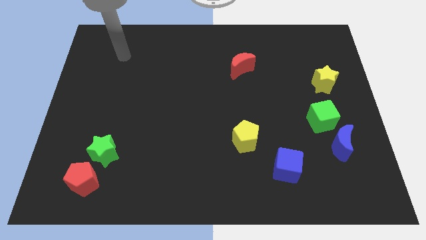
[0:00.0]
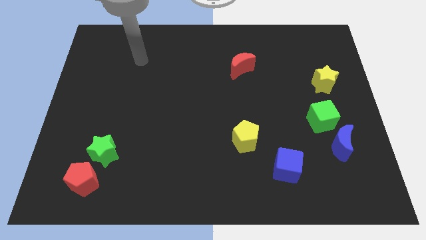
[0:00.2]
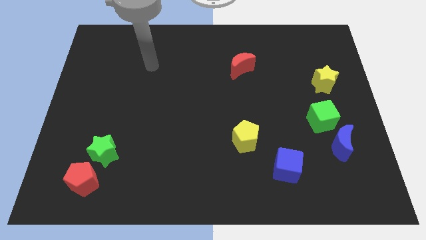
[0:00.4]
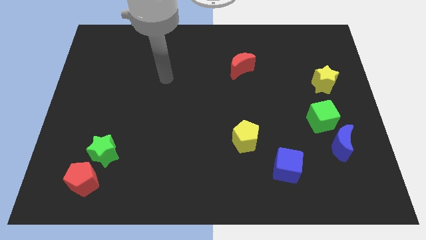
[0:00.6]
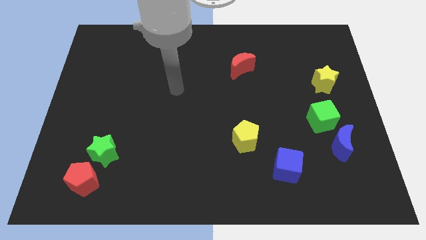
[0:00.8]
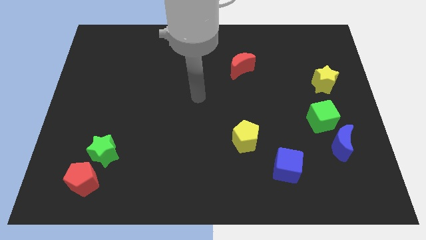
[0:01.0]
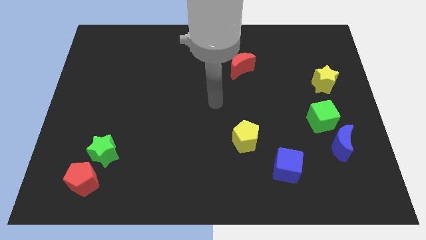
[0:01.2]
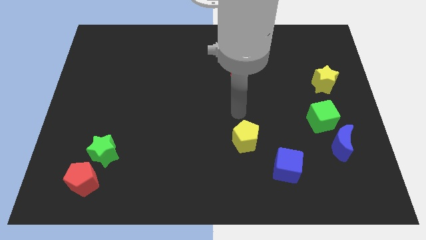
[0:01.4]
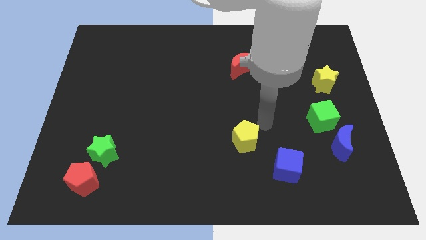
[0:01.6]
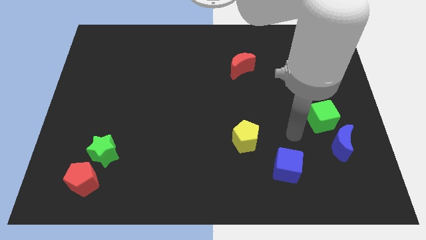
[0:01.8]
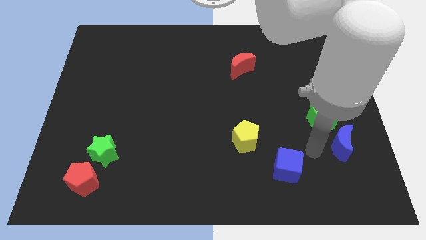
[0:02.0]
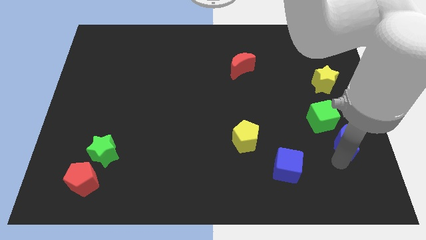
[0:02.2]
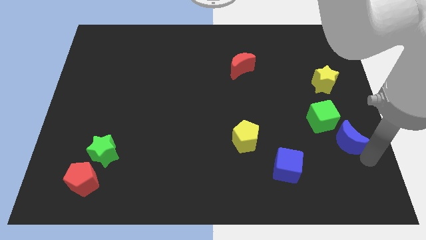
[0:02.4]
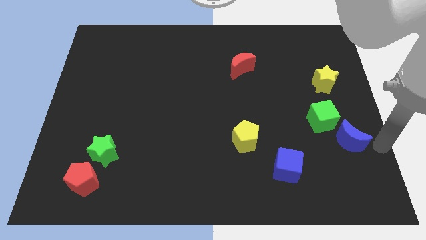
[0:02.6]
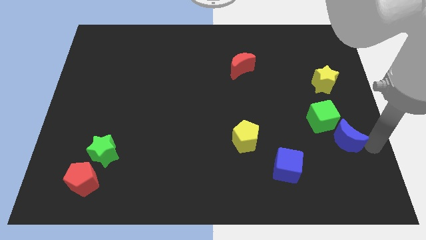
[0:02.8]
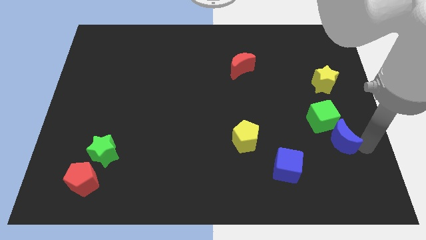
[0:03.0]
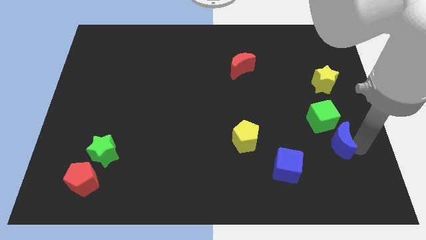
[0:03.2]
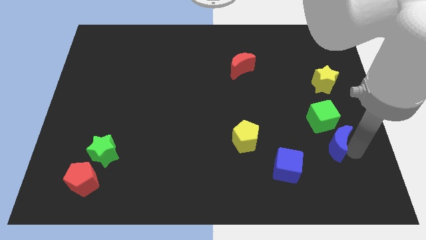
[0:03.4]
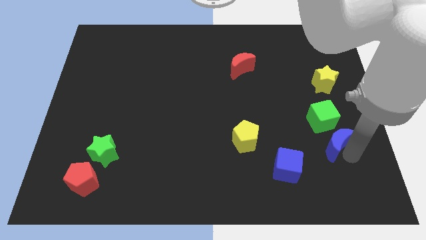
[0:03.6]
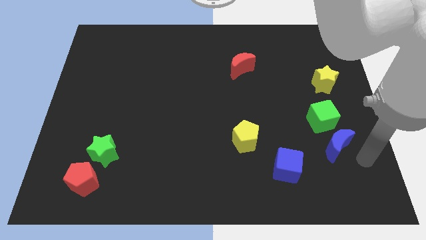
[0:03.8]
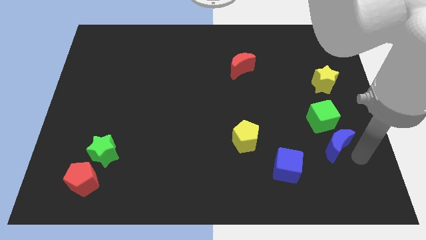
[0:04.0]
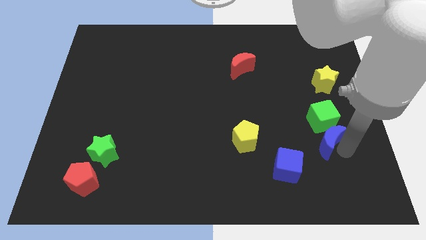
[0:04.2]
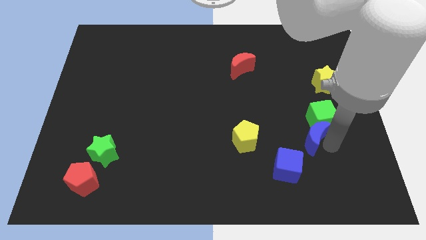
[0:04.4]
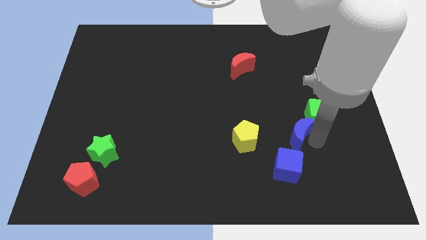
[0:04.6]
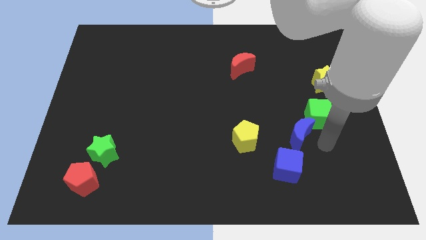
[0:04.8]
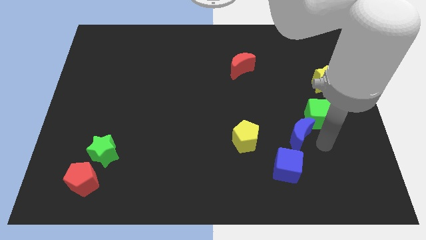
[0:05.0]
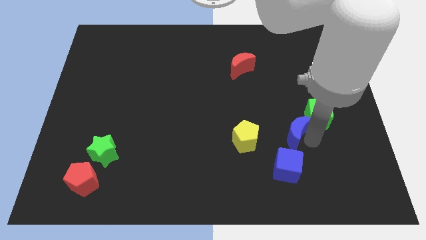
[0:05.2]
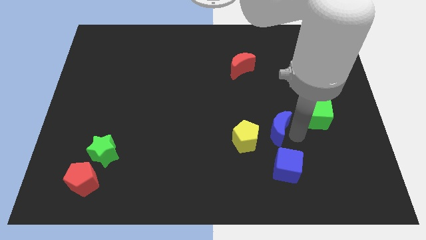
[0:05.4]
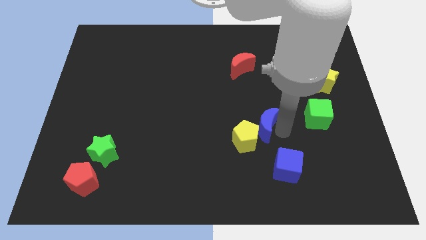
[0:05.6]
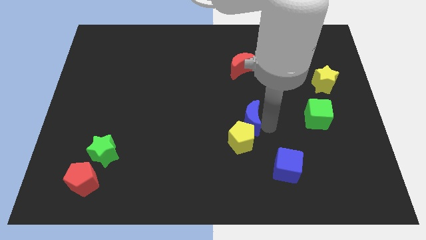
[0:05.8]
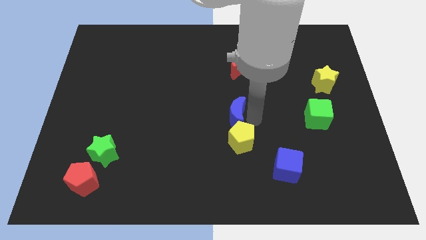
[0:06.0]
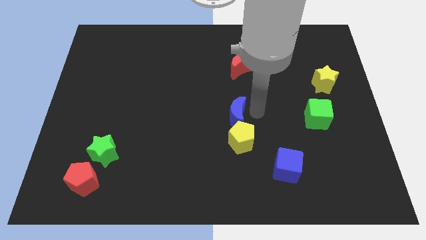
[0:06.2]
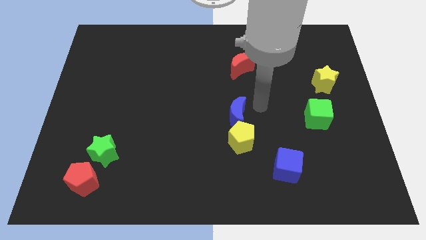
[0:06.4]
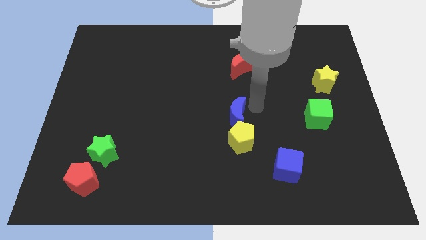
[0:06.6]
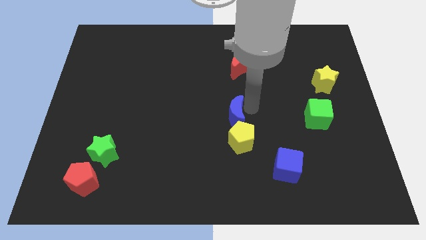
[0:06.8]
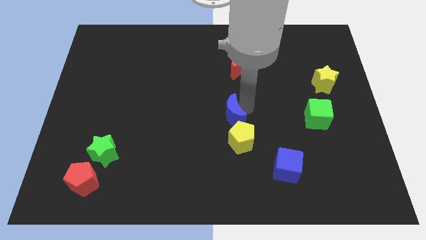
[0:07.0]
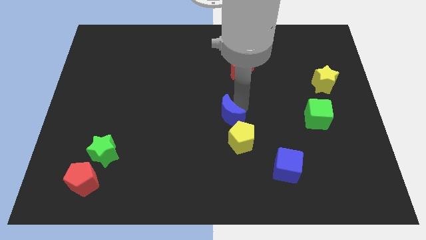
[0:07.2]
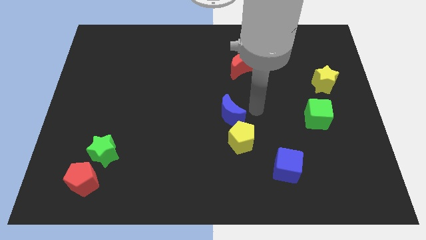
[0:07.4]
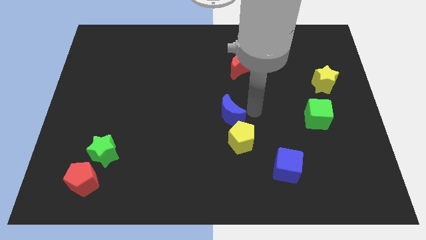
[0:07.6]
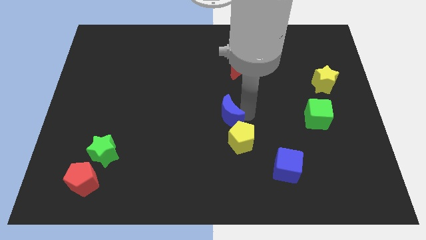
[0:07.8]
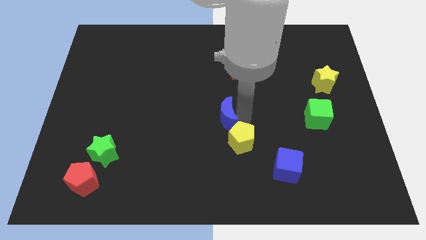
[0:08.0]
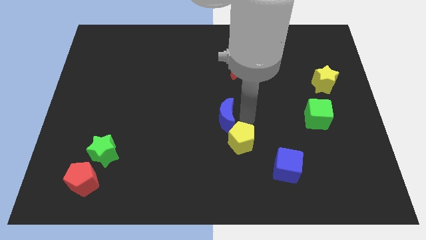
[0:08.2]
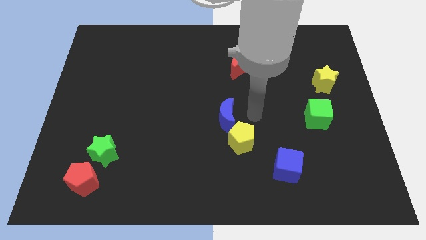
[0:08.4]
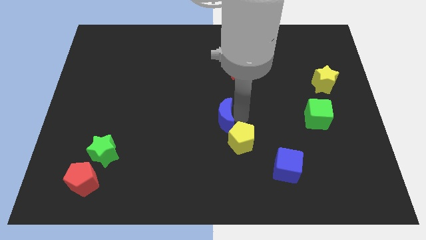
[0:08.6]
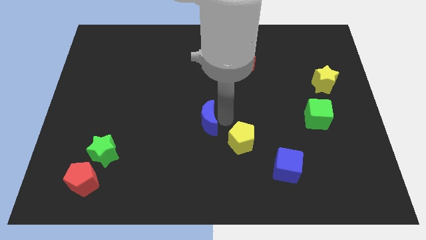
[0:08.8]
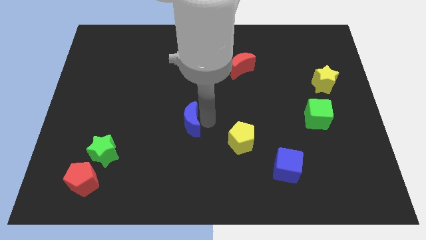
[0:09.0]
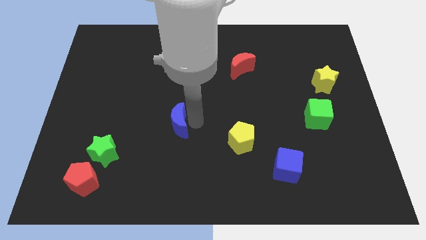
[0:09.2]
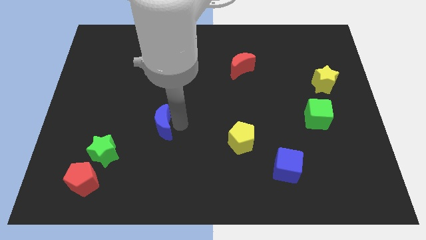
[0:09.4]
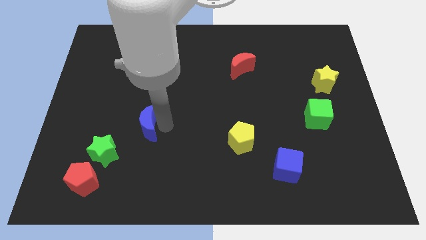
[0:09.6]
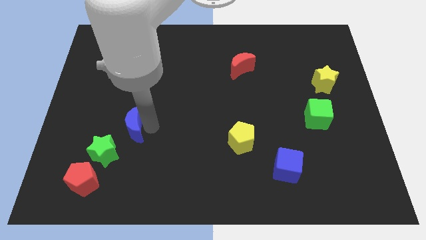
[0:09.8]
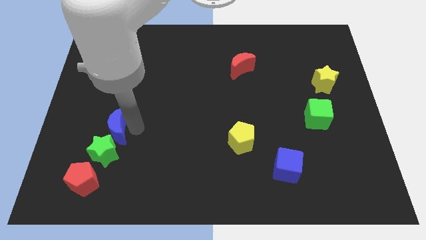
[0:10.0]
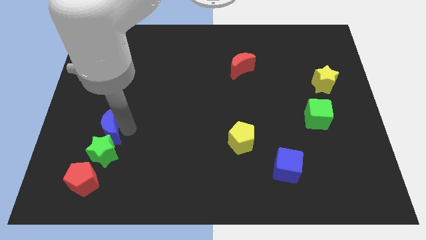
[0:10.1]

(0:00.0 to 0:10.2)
push the blue moon to the top left side of the green star

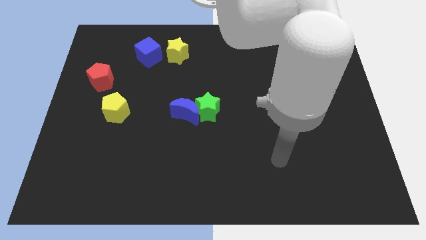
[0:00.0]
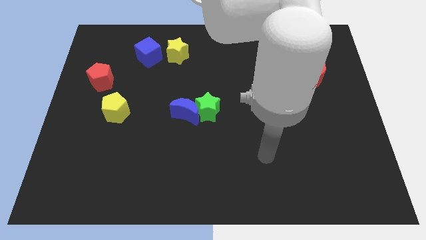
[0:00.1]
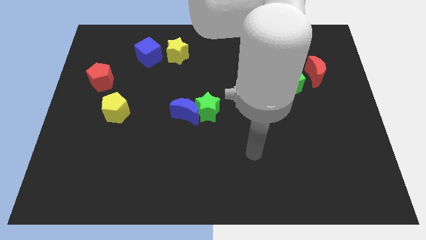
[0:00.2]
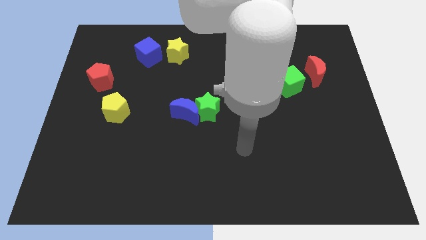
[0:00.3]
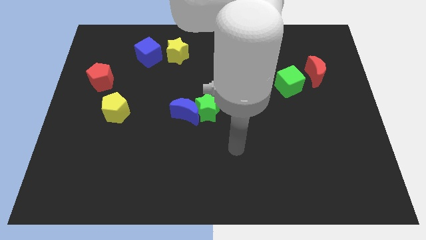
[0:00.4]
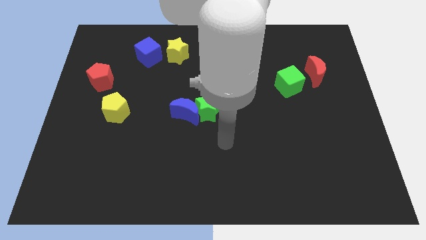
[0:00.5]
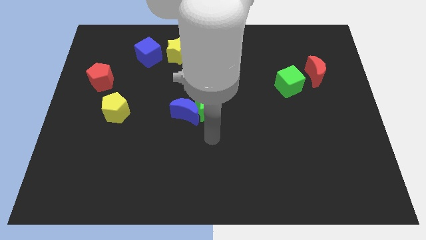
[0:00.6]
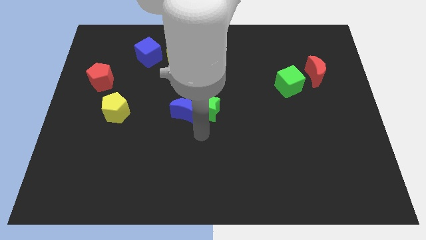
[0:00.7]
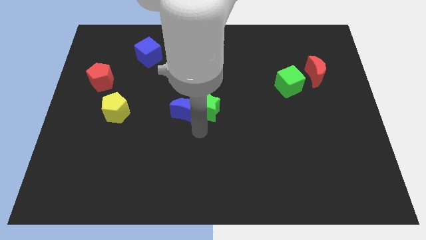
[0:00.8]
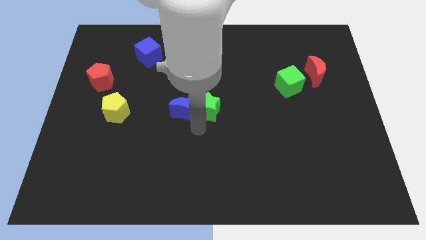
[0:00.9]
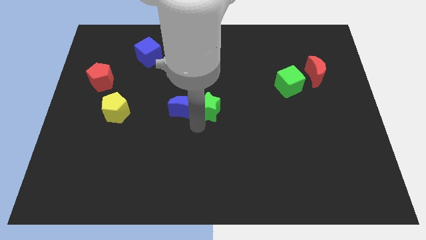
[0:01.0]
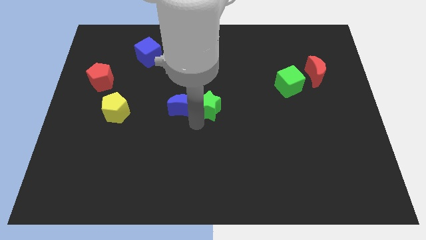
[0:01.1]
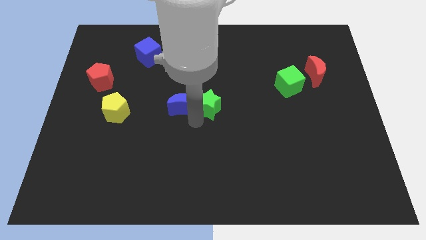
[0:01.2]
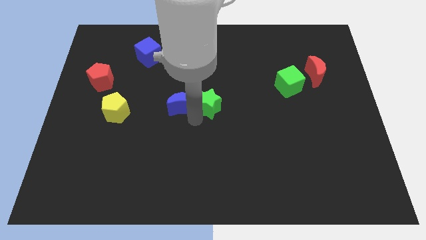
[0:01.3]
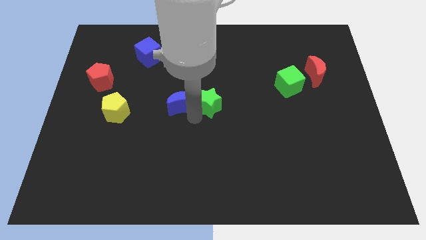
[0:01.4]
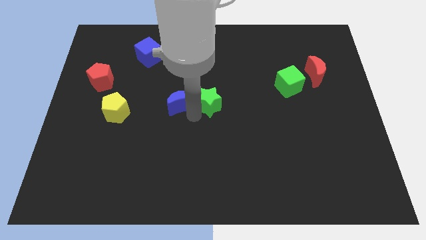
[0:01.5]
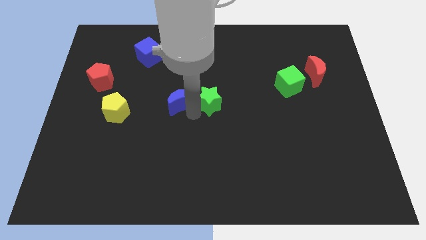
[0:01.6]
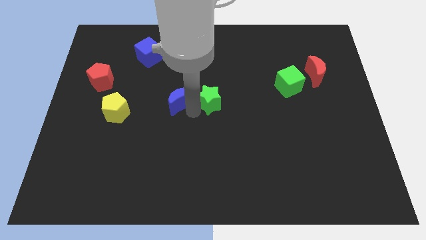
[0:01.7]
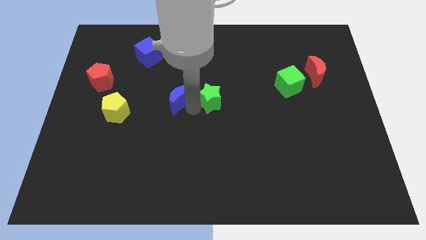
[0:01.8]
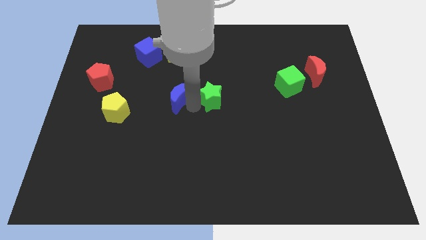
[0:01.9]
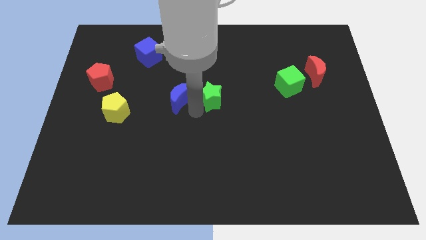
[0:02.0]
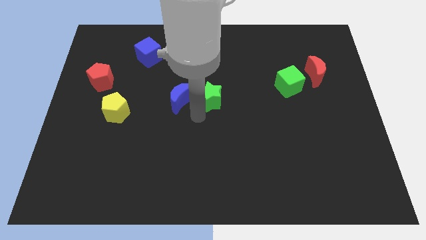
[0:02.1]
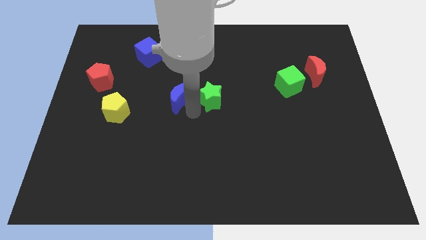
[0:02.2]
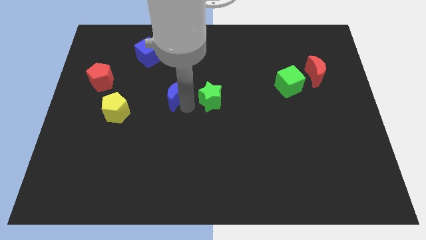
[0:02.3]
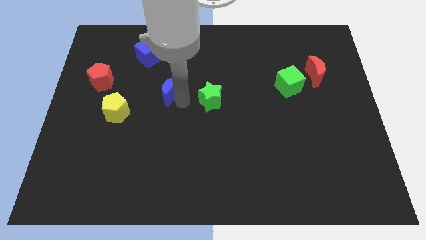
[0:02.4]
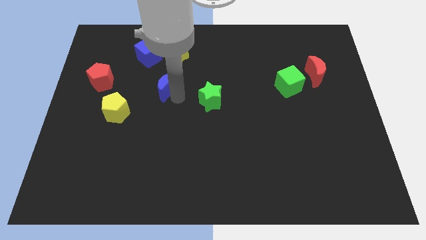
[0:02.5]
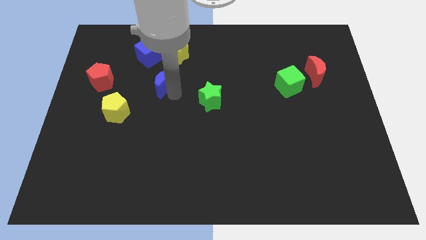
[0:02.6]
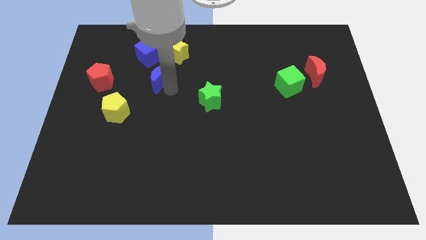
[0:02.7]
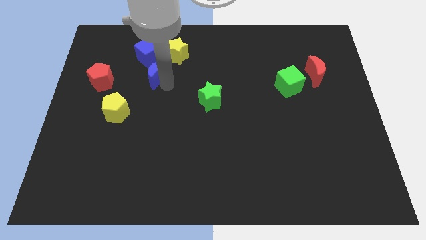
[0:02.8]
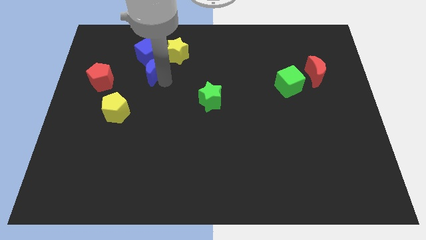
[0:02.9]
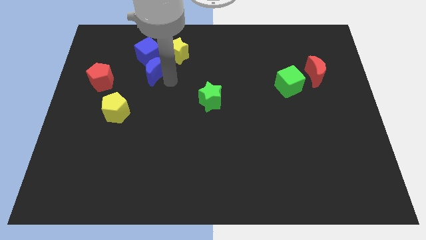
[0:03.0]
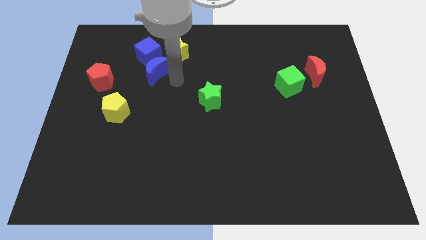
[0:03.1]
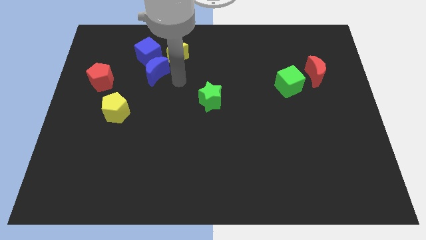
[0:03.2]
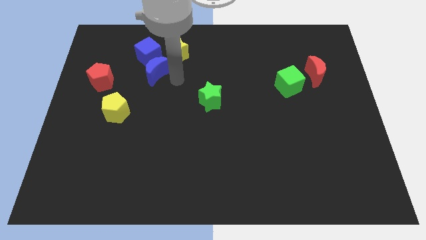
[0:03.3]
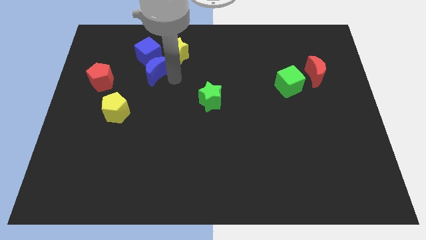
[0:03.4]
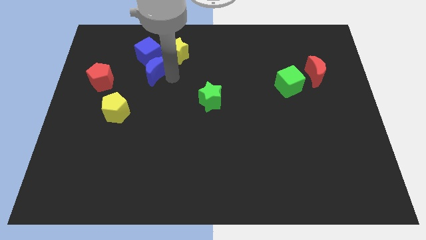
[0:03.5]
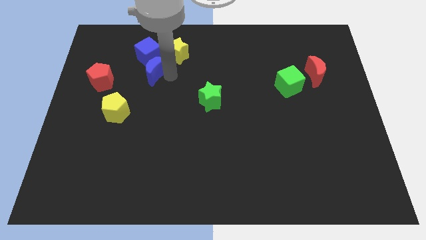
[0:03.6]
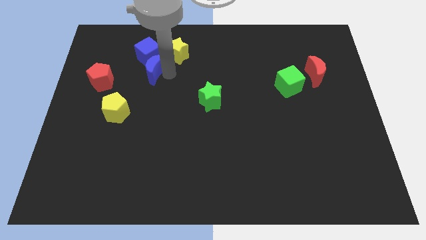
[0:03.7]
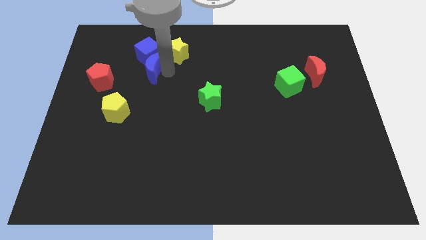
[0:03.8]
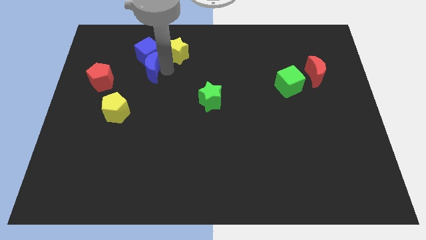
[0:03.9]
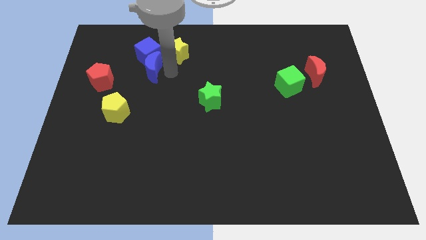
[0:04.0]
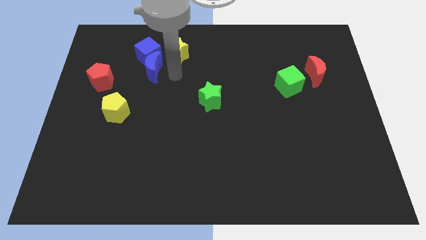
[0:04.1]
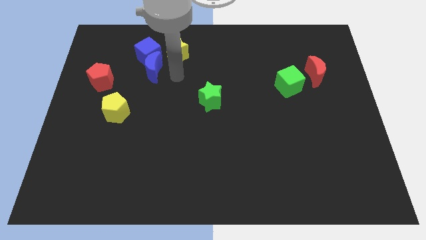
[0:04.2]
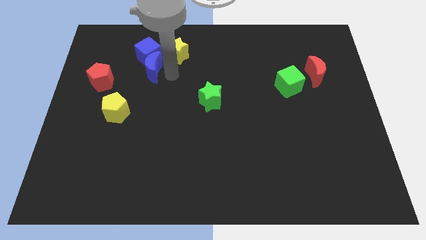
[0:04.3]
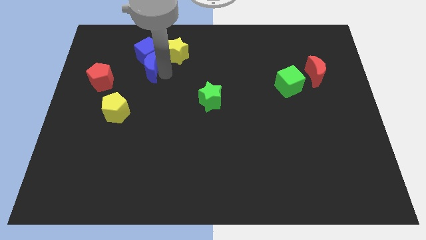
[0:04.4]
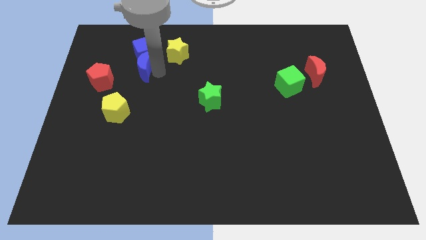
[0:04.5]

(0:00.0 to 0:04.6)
put the blue moon to the left side of the yellow star
